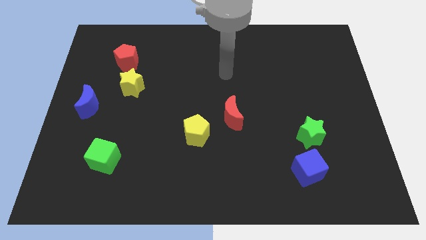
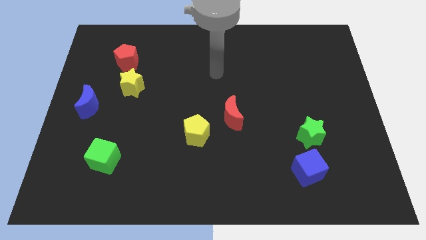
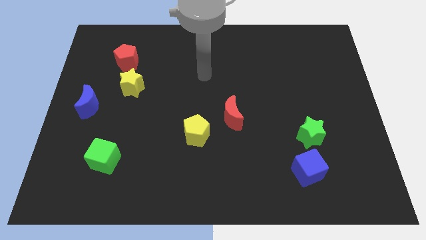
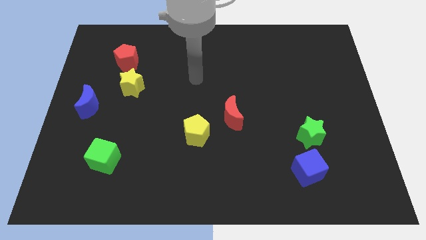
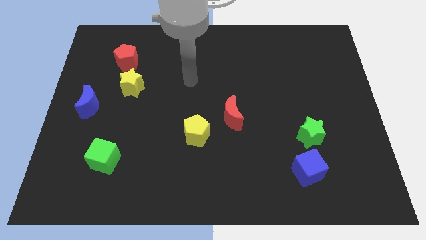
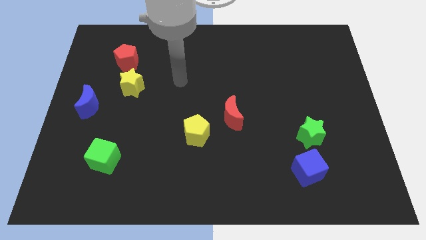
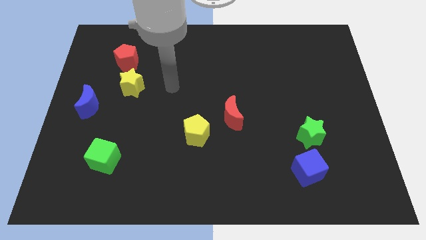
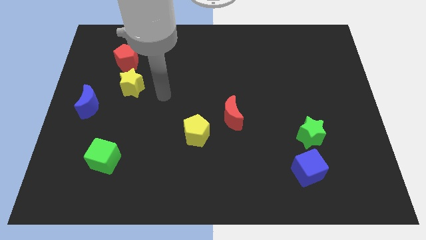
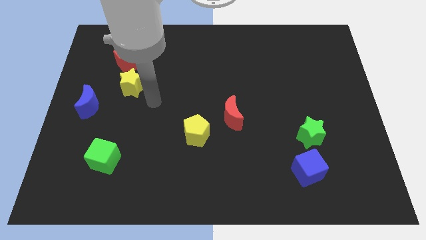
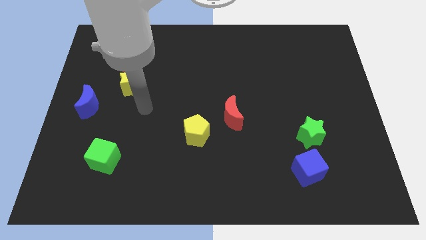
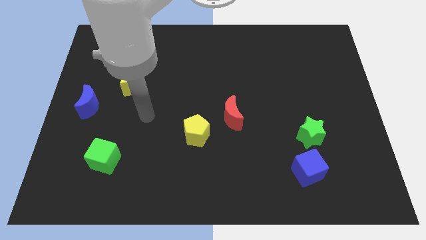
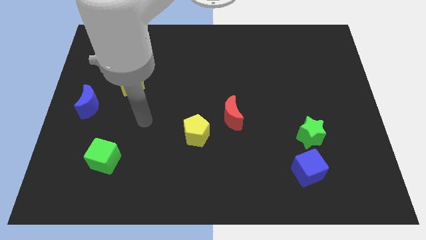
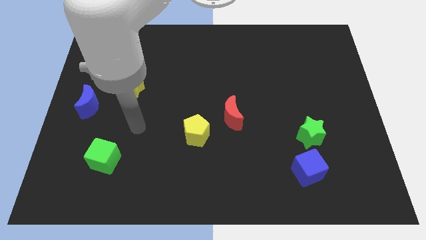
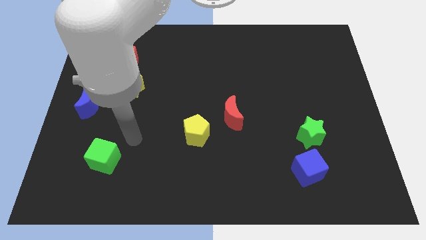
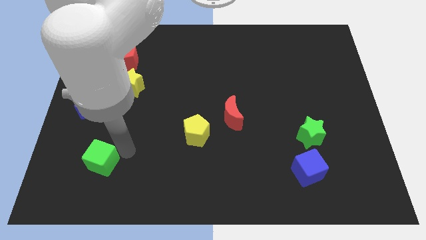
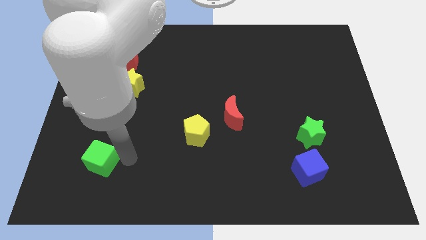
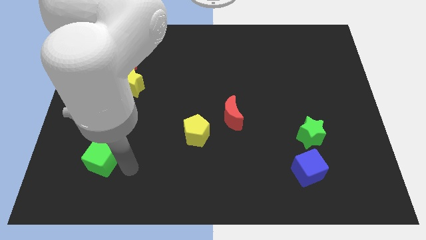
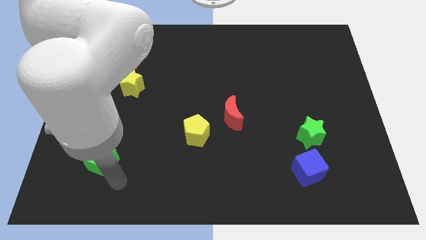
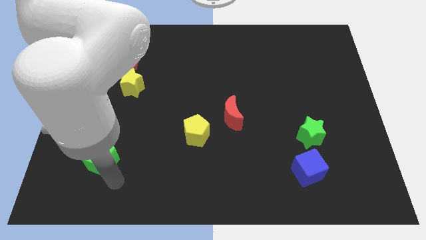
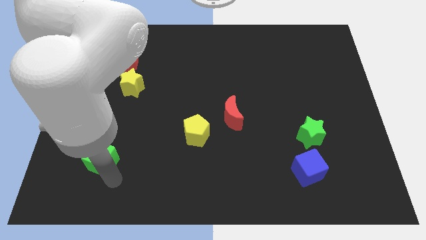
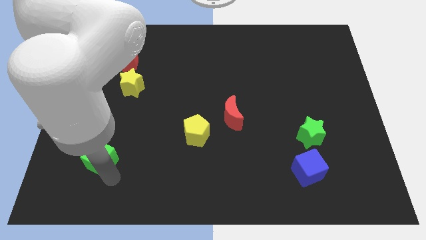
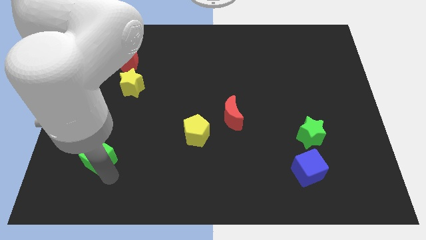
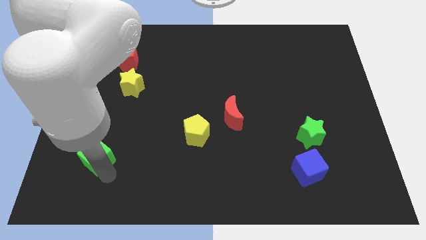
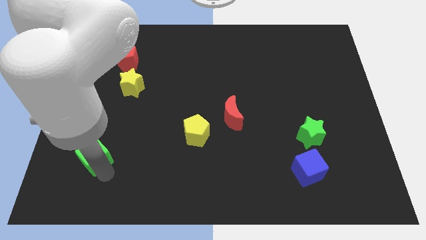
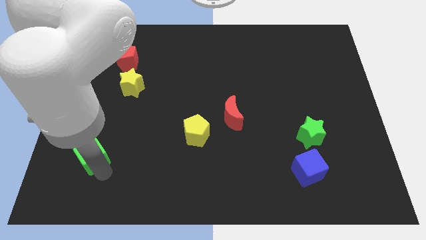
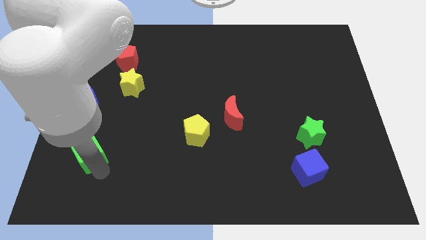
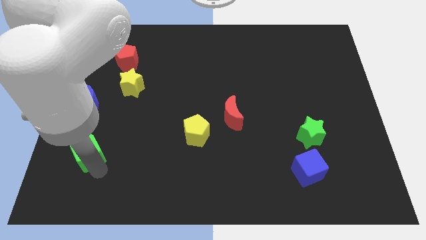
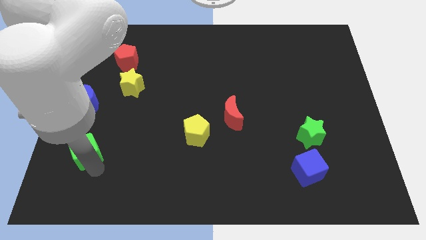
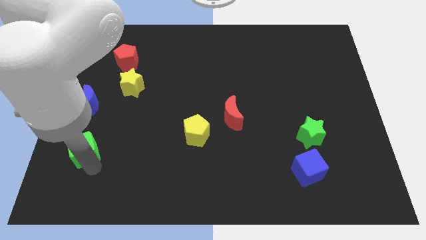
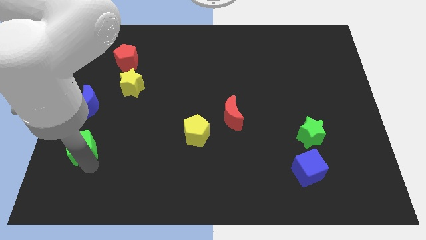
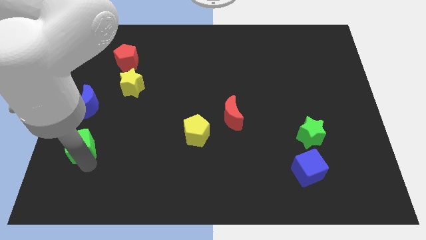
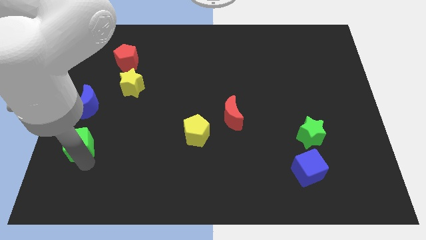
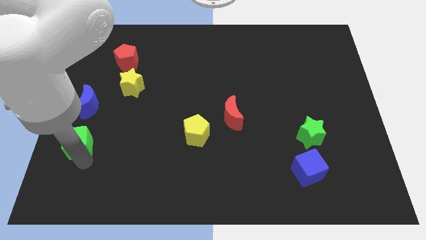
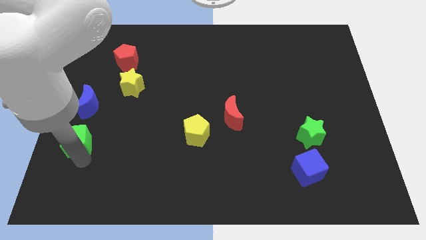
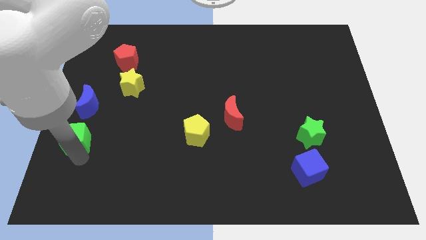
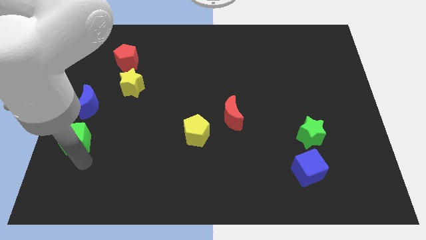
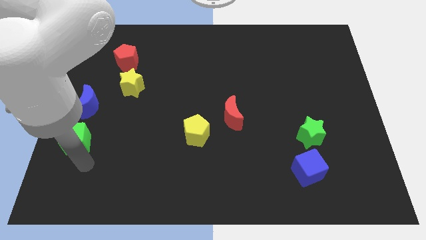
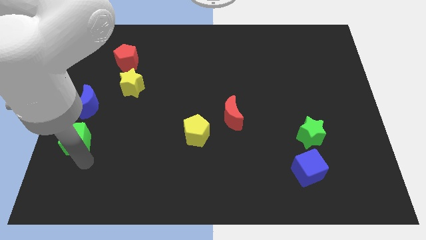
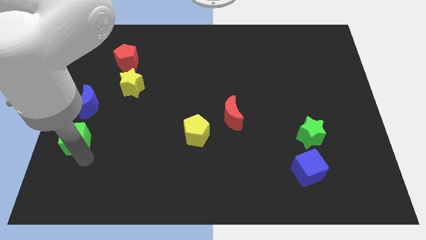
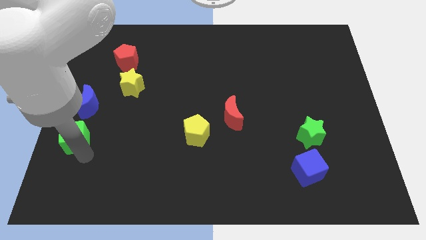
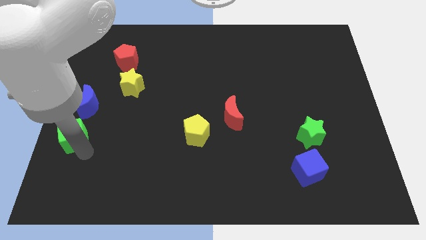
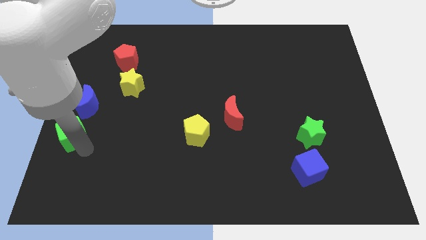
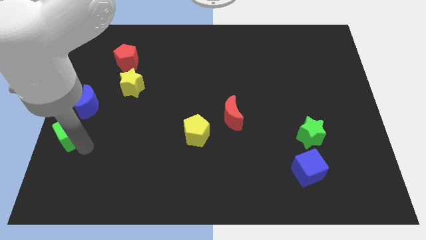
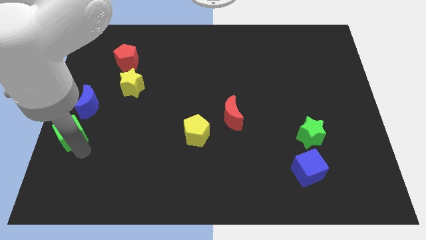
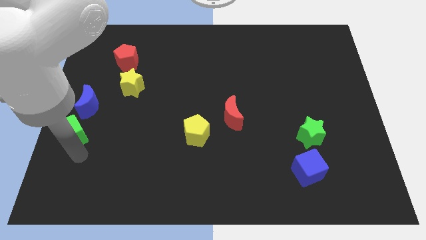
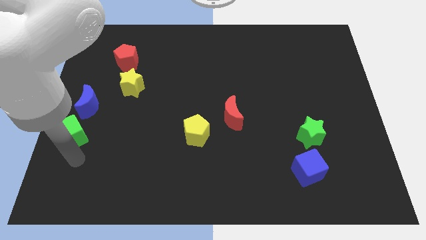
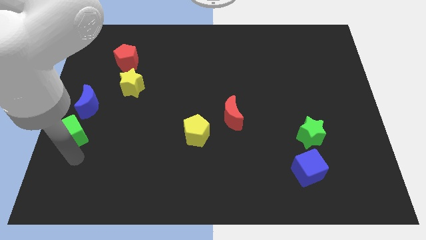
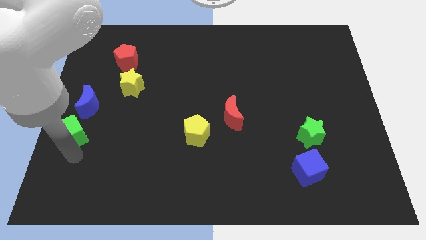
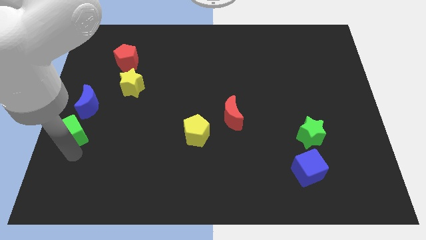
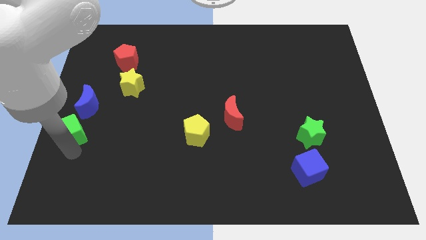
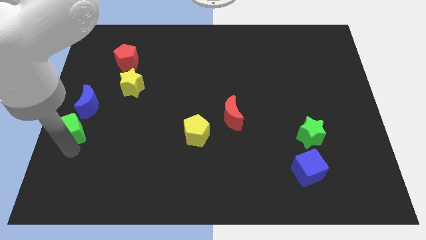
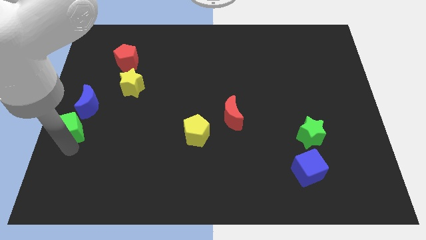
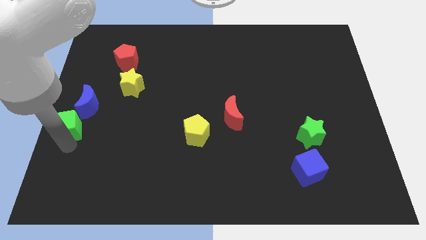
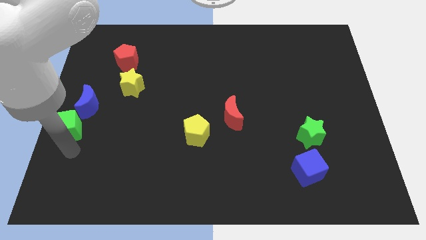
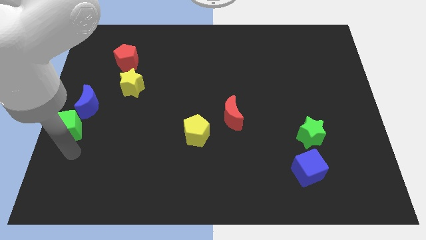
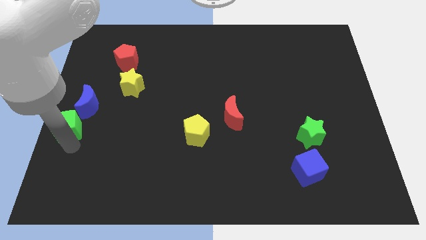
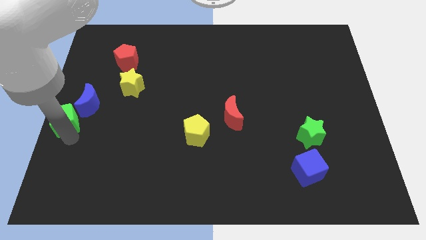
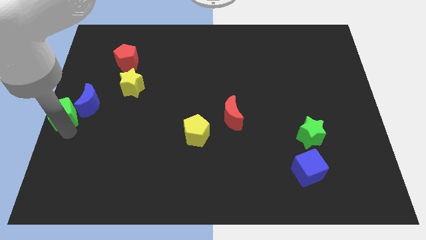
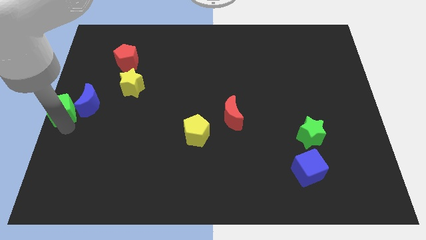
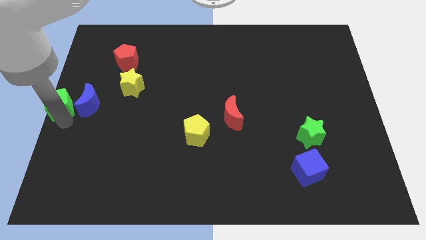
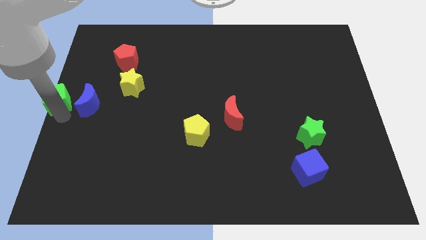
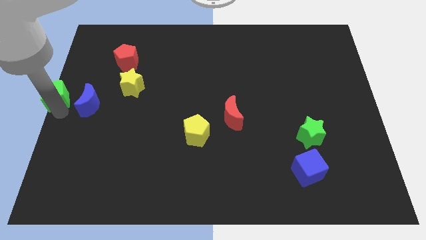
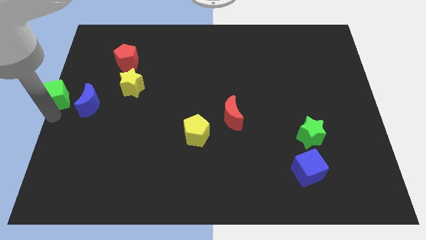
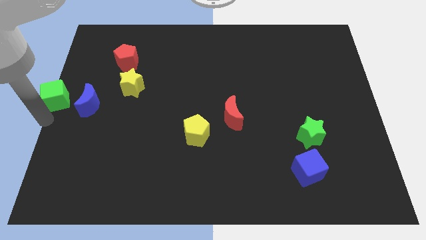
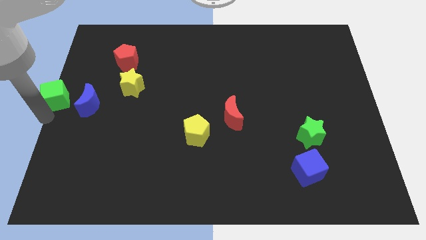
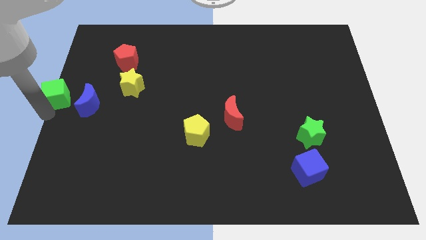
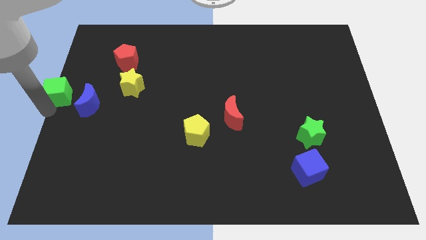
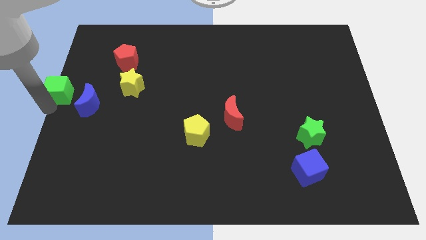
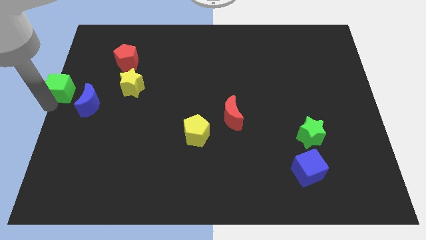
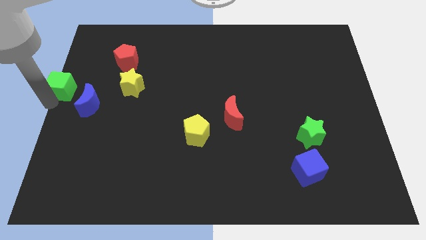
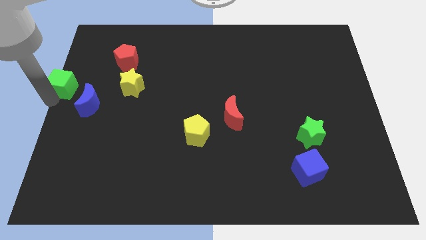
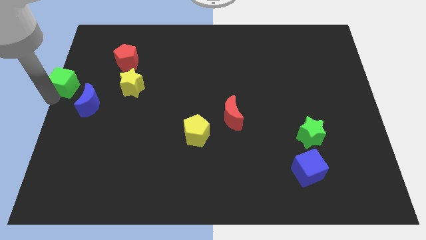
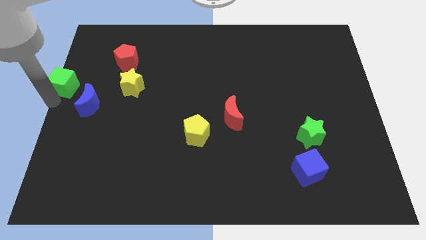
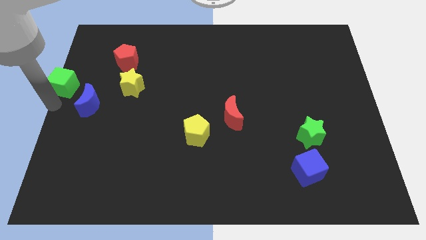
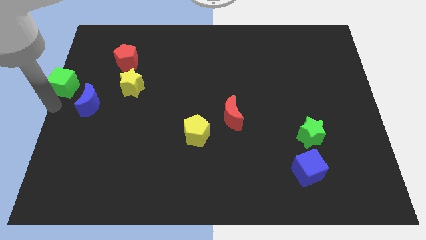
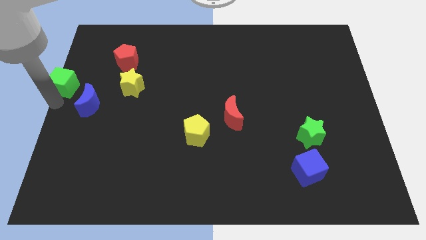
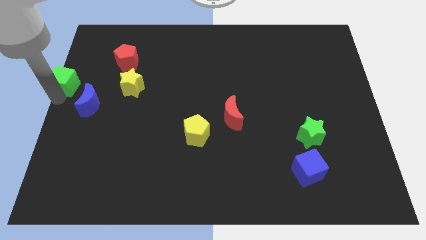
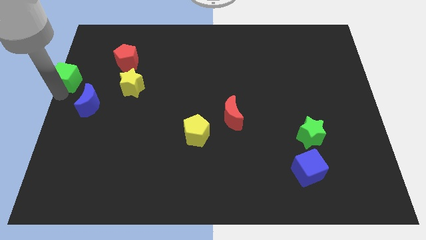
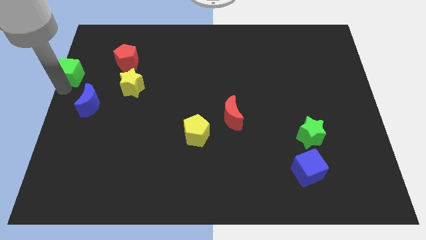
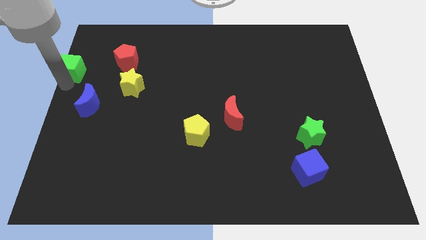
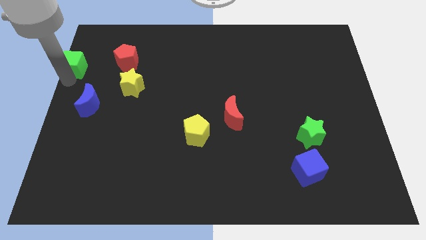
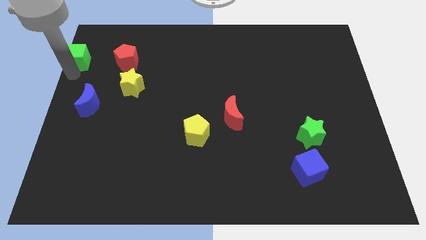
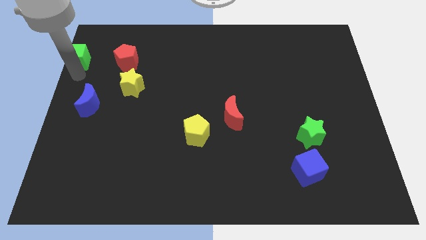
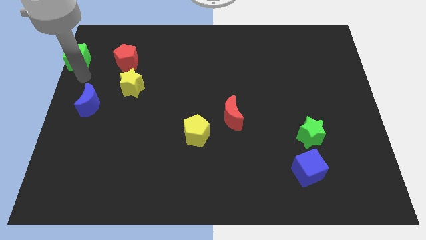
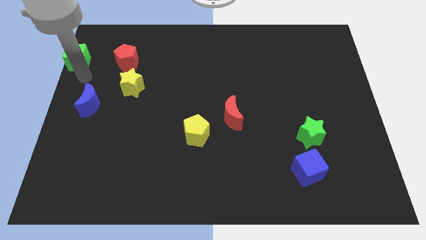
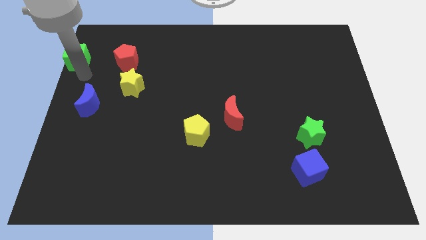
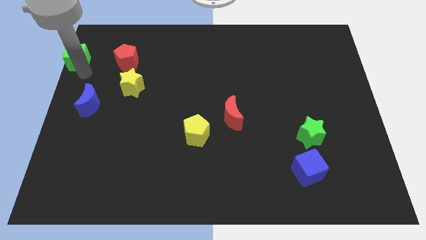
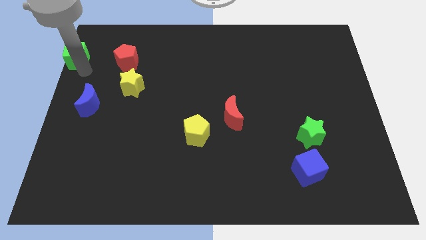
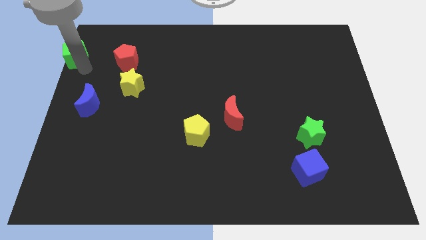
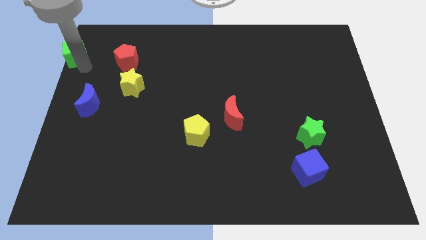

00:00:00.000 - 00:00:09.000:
move the green cube to the top left of the board
